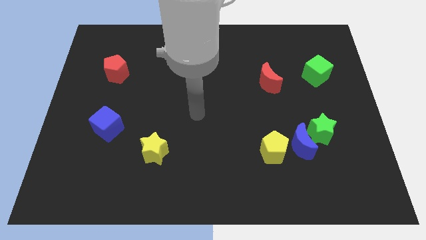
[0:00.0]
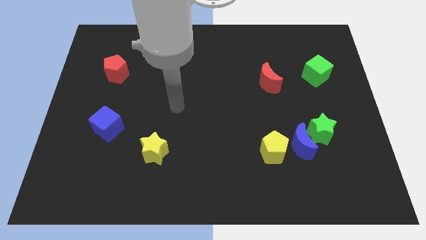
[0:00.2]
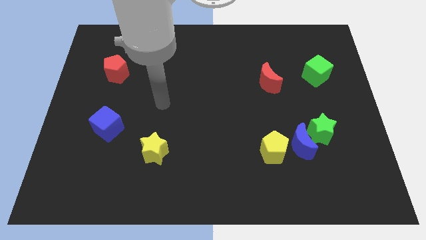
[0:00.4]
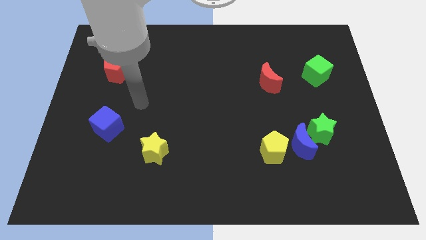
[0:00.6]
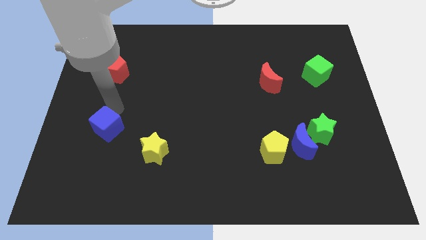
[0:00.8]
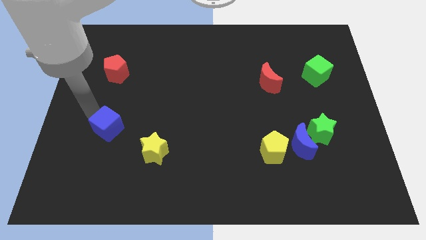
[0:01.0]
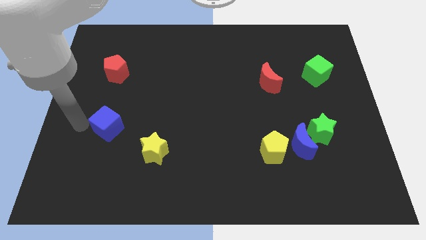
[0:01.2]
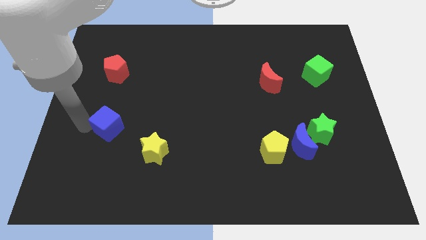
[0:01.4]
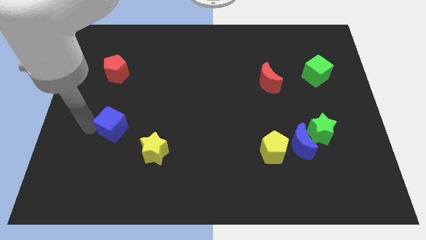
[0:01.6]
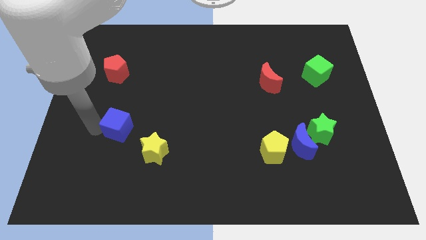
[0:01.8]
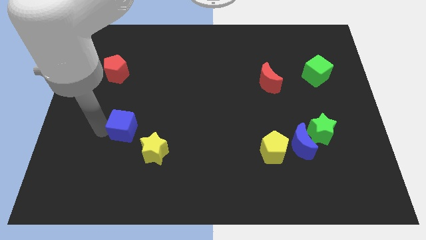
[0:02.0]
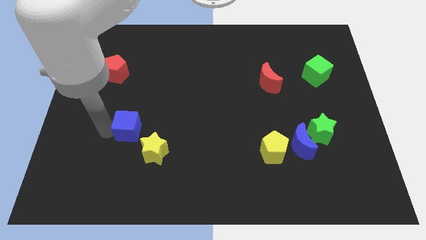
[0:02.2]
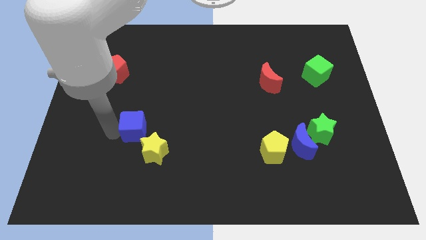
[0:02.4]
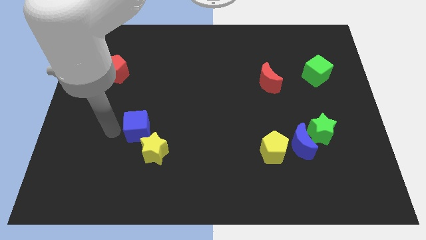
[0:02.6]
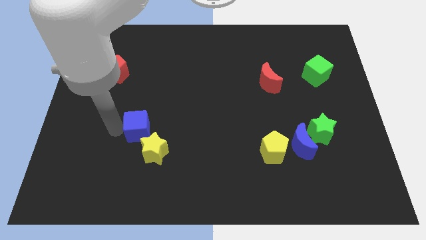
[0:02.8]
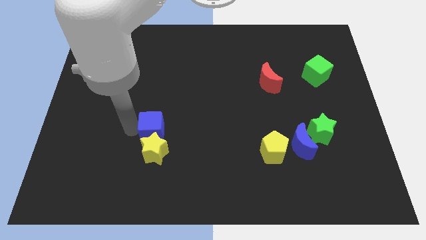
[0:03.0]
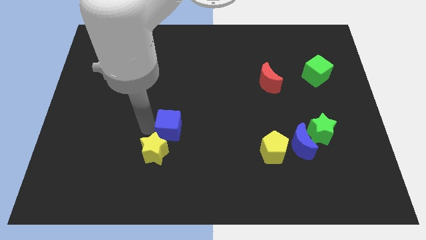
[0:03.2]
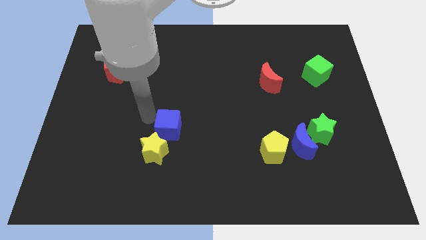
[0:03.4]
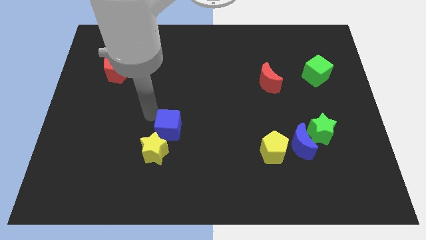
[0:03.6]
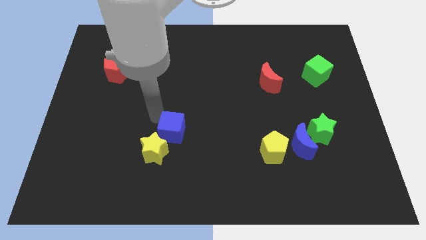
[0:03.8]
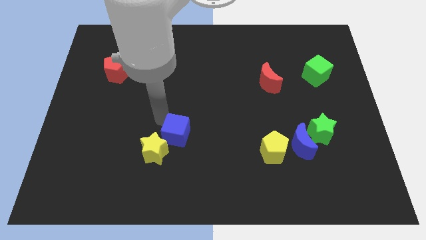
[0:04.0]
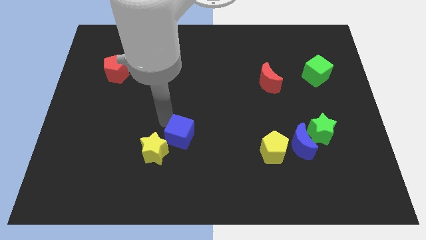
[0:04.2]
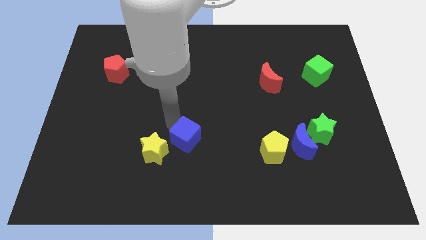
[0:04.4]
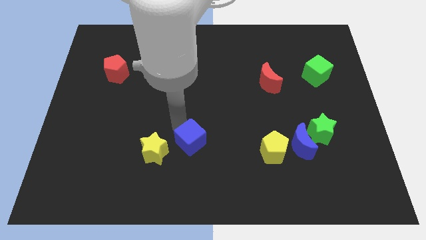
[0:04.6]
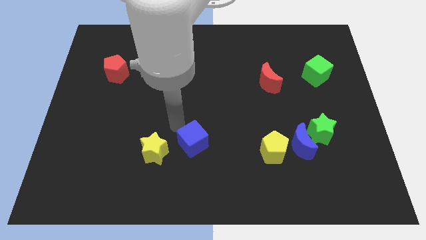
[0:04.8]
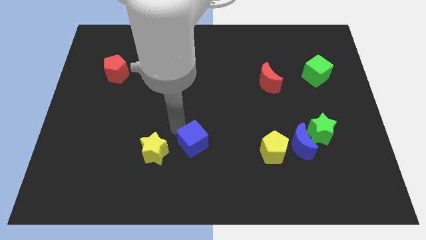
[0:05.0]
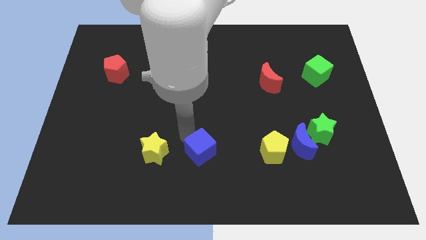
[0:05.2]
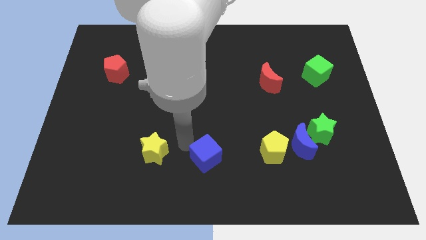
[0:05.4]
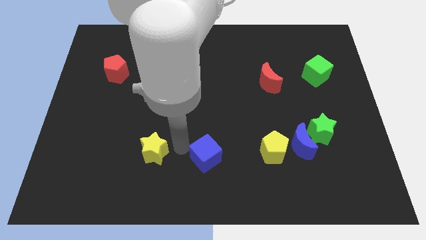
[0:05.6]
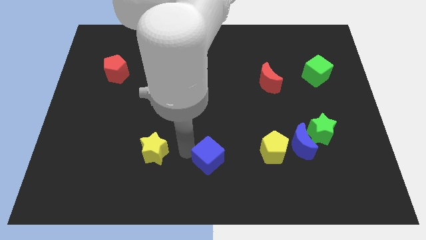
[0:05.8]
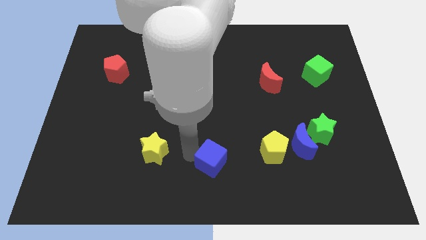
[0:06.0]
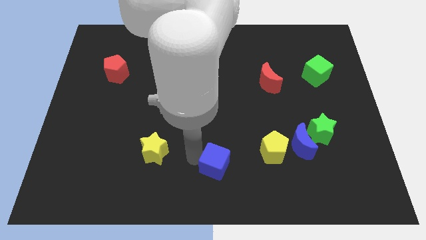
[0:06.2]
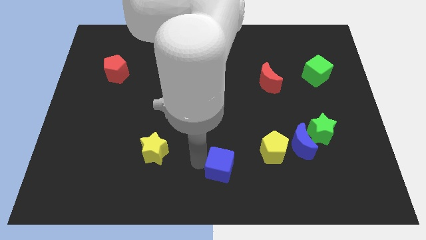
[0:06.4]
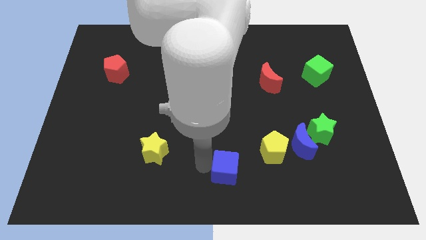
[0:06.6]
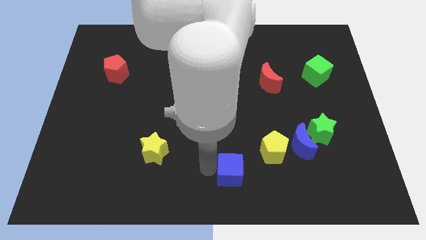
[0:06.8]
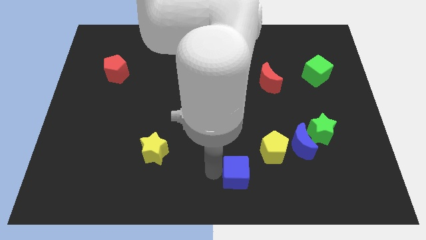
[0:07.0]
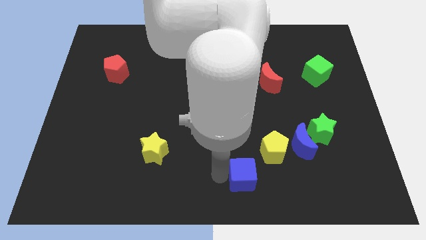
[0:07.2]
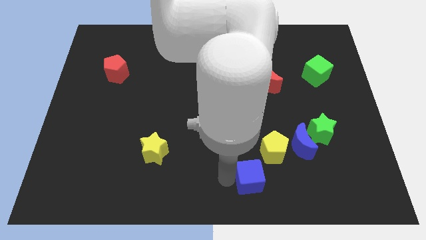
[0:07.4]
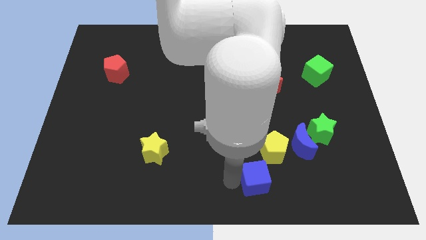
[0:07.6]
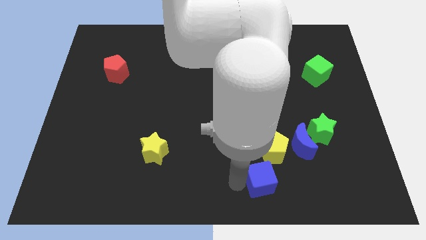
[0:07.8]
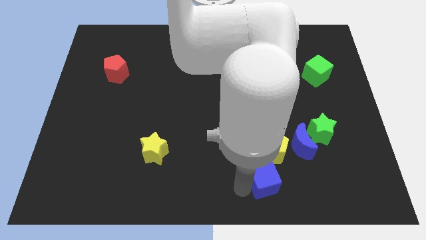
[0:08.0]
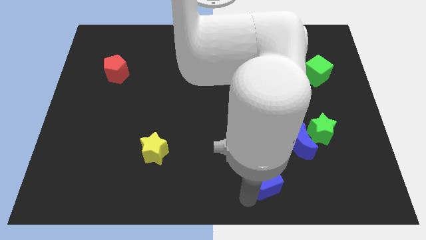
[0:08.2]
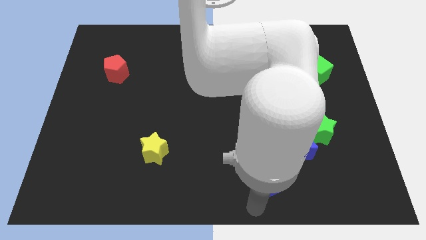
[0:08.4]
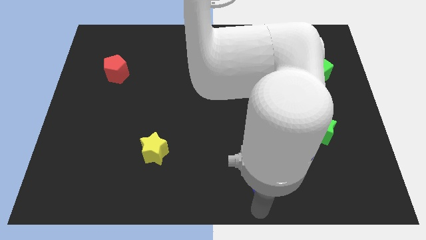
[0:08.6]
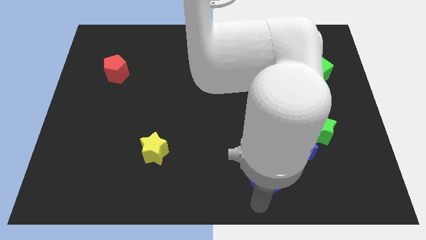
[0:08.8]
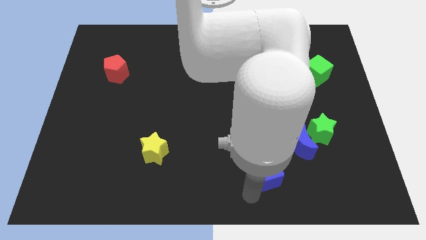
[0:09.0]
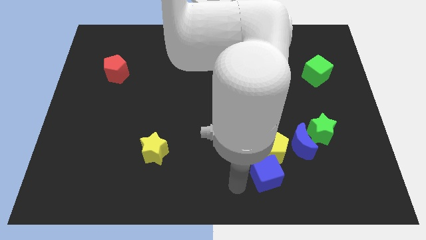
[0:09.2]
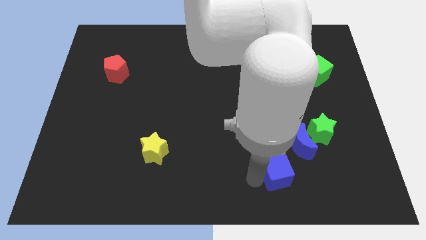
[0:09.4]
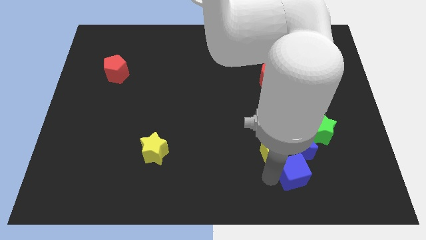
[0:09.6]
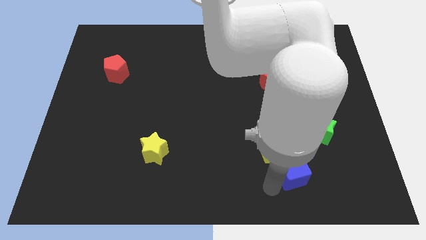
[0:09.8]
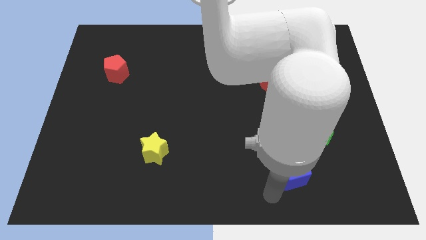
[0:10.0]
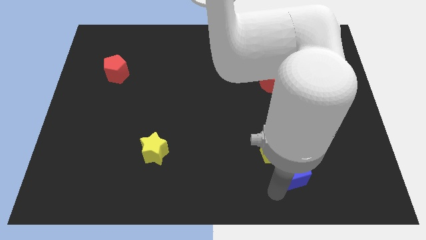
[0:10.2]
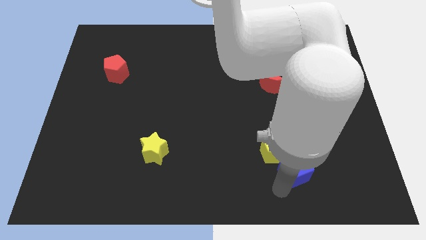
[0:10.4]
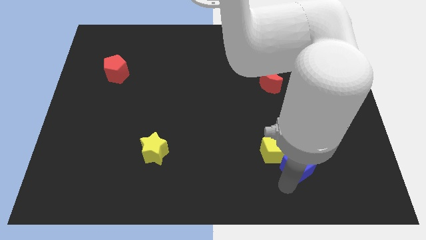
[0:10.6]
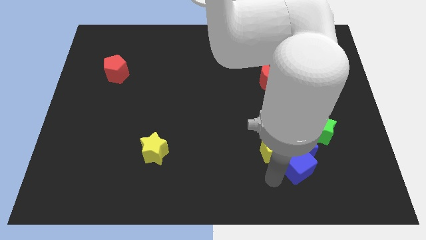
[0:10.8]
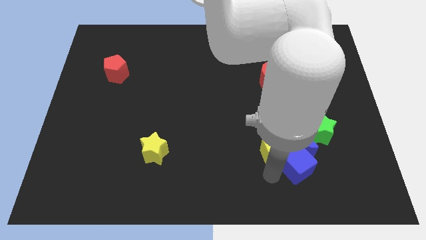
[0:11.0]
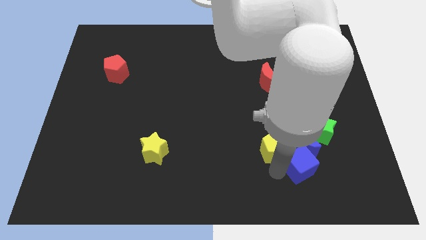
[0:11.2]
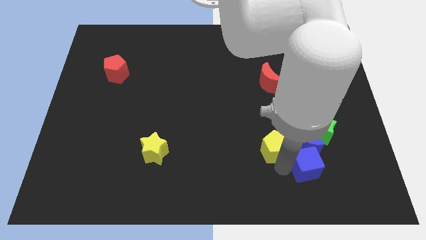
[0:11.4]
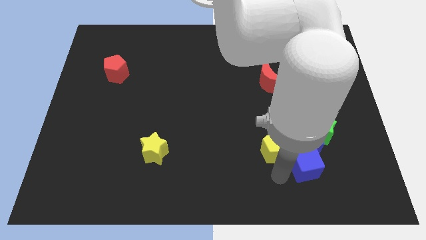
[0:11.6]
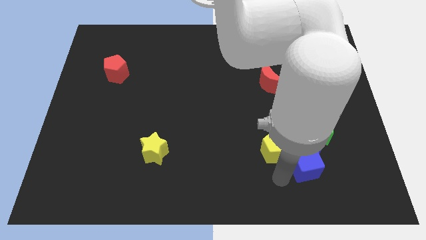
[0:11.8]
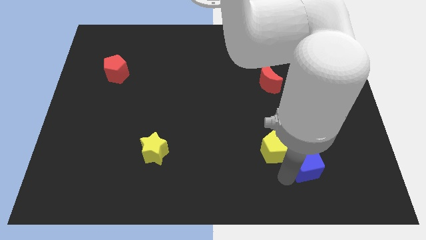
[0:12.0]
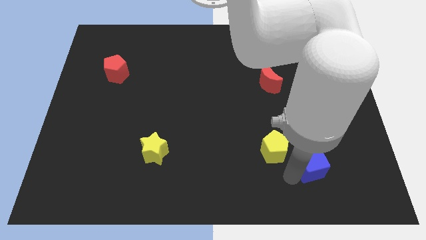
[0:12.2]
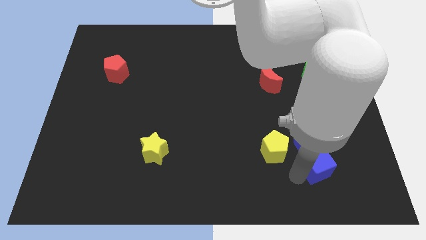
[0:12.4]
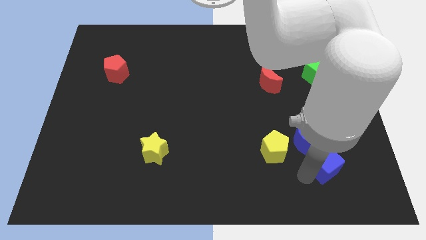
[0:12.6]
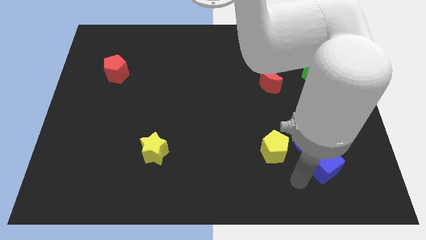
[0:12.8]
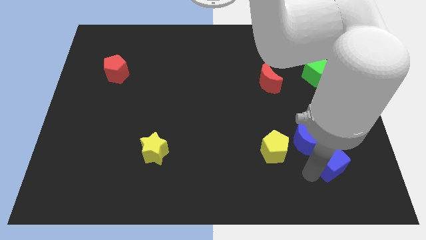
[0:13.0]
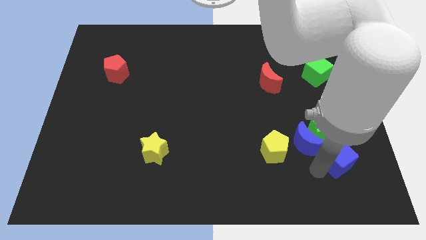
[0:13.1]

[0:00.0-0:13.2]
push the blue cube diagonally down and to the right of the green star

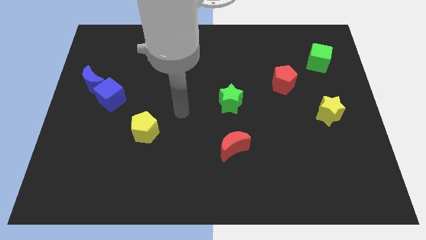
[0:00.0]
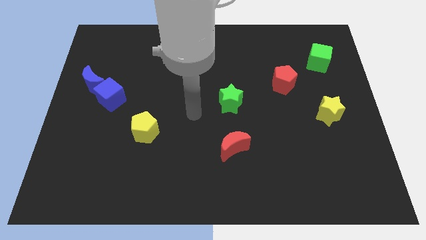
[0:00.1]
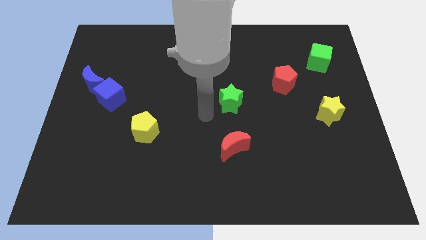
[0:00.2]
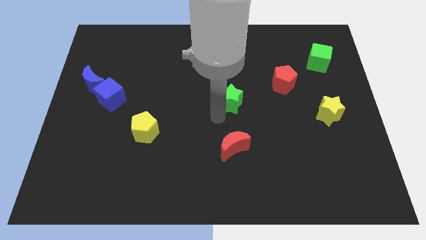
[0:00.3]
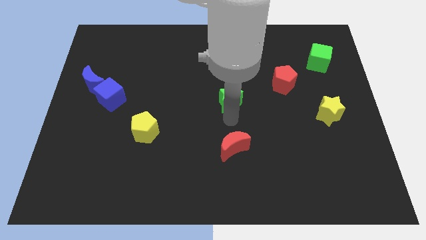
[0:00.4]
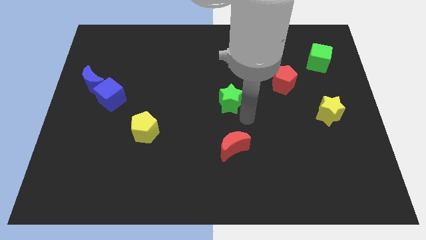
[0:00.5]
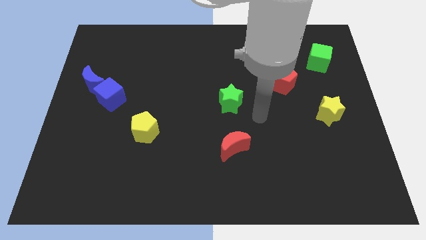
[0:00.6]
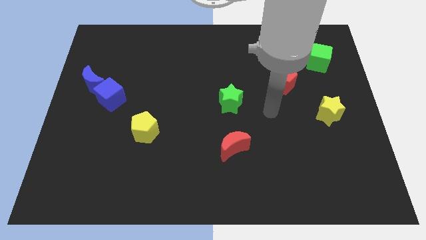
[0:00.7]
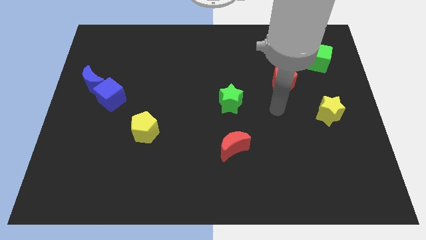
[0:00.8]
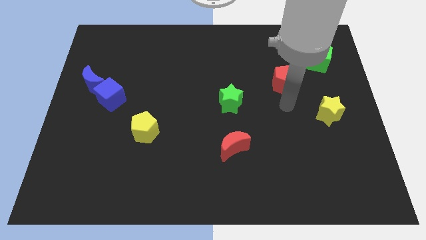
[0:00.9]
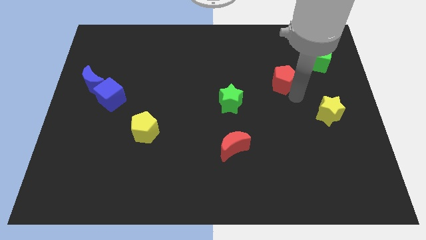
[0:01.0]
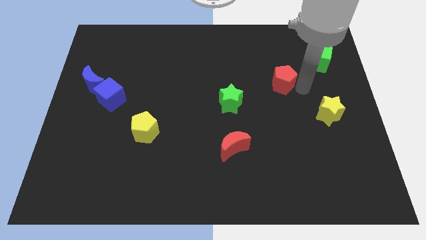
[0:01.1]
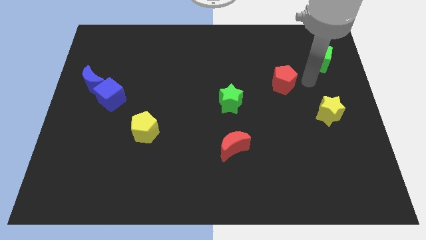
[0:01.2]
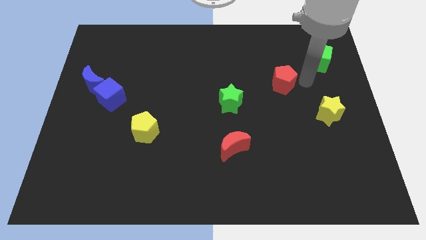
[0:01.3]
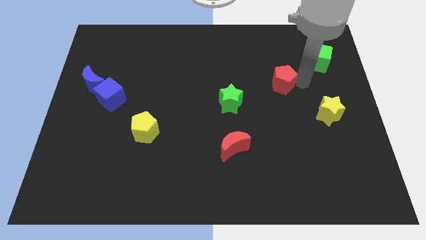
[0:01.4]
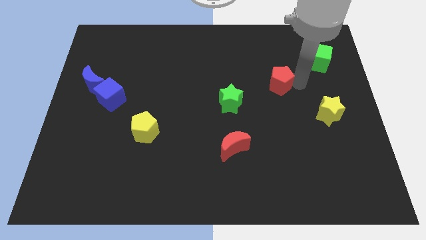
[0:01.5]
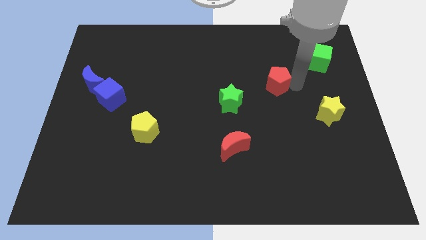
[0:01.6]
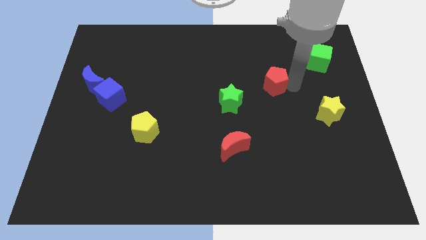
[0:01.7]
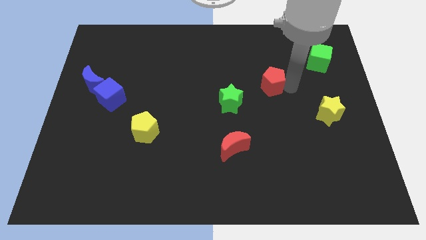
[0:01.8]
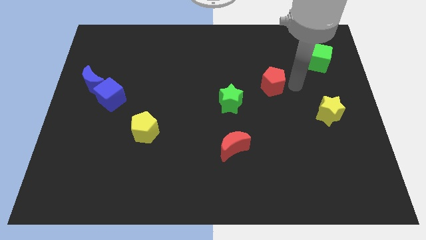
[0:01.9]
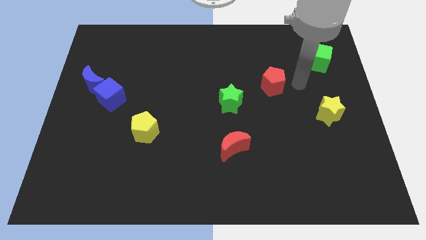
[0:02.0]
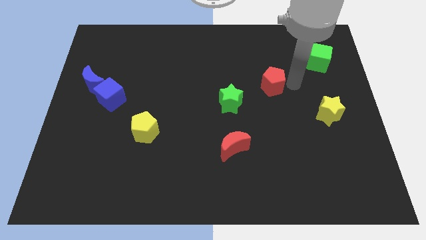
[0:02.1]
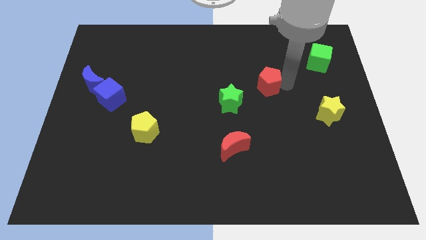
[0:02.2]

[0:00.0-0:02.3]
push the red pentagon to the top right of the green star
